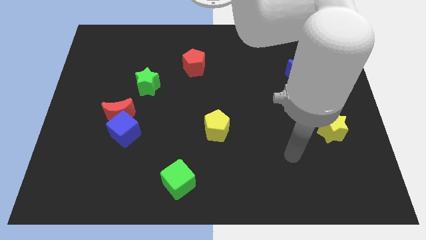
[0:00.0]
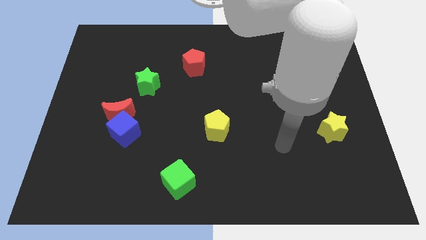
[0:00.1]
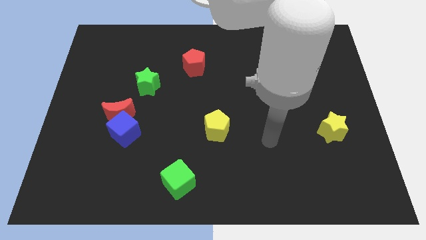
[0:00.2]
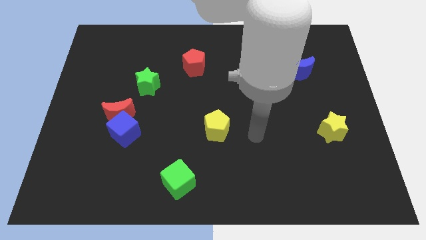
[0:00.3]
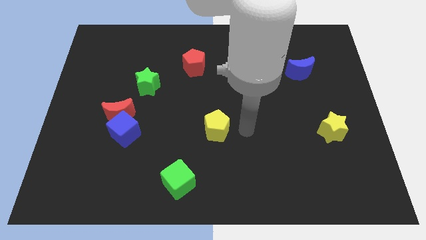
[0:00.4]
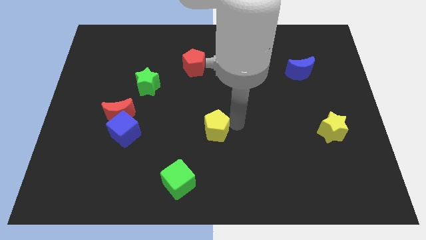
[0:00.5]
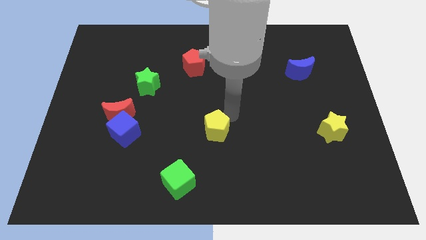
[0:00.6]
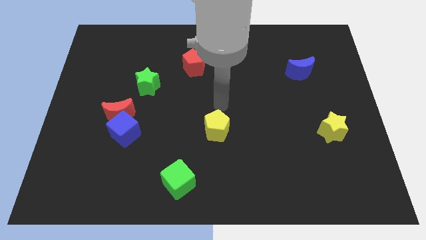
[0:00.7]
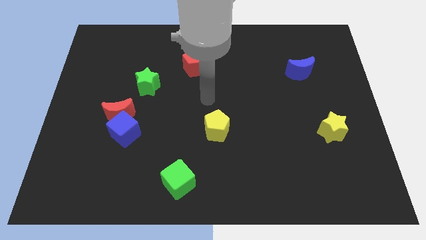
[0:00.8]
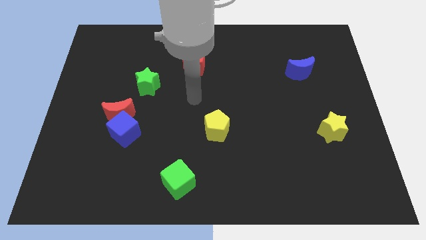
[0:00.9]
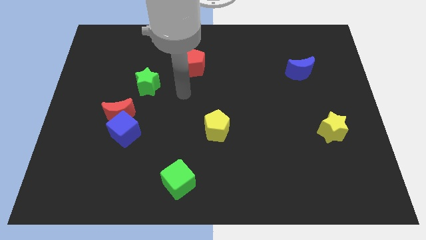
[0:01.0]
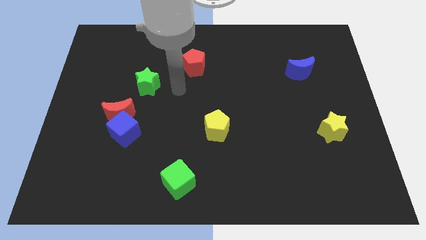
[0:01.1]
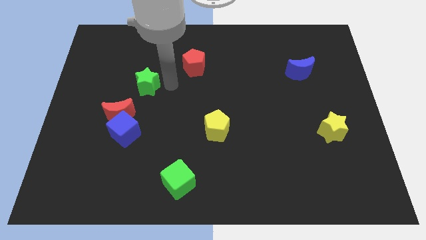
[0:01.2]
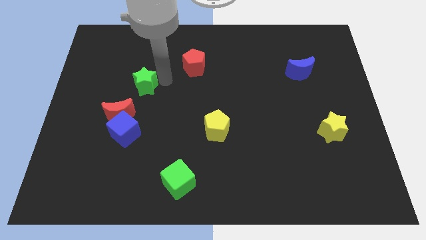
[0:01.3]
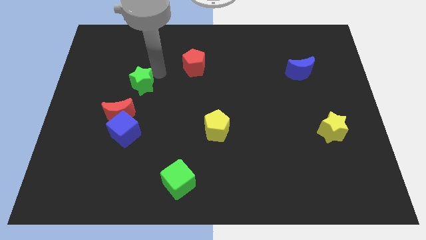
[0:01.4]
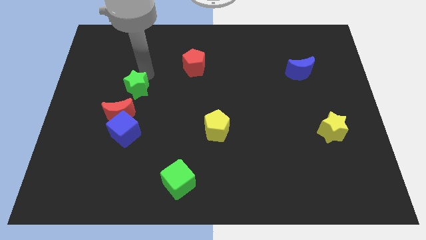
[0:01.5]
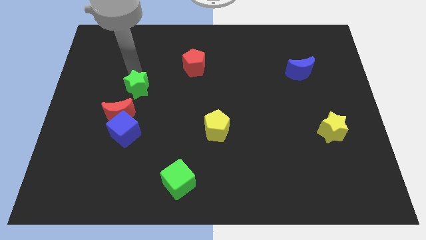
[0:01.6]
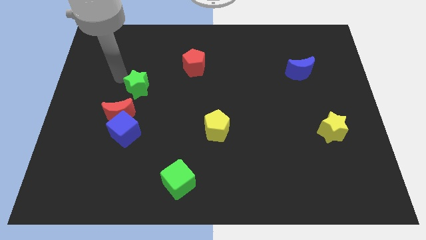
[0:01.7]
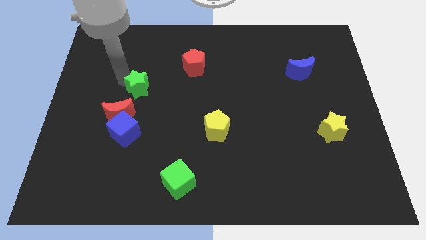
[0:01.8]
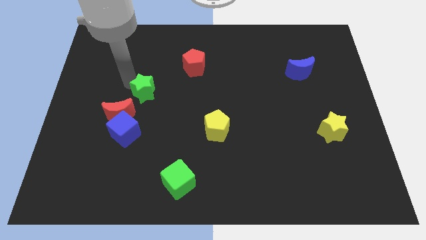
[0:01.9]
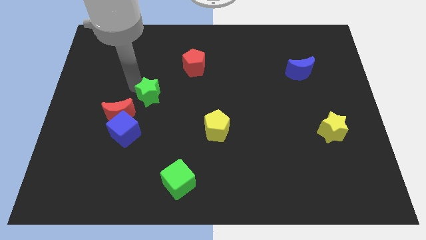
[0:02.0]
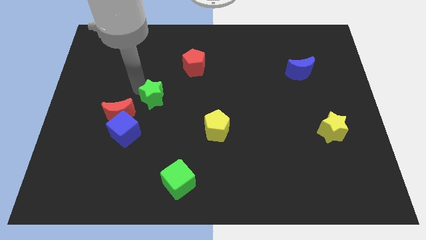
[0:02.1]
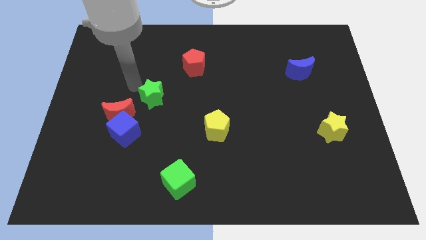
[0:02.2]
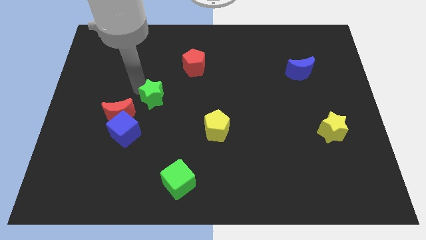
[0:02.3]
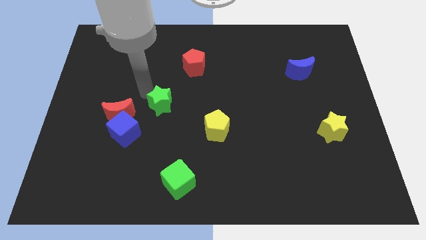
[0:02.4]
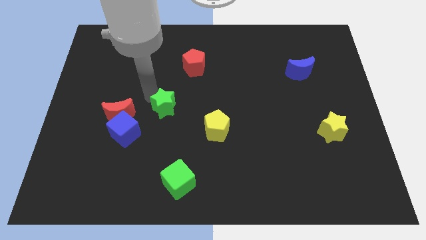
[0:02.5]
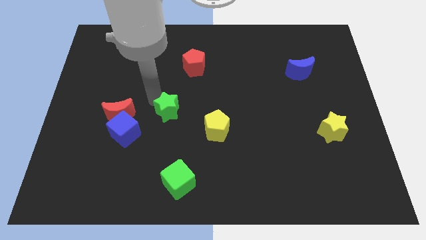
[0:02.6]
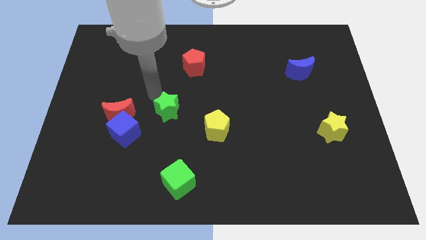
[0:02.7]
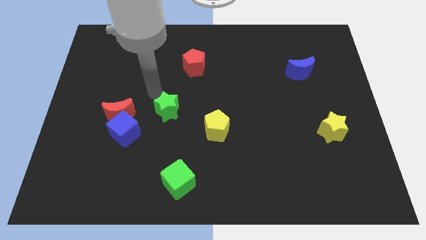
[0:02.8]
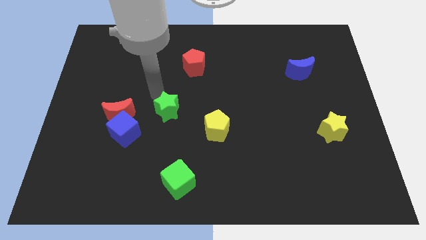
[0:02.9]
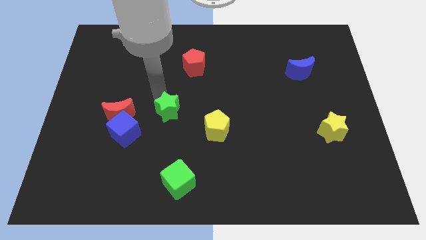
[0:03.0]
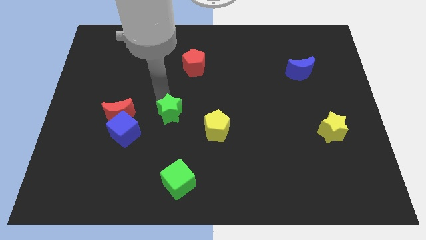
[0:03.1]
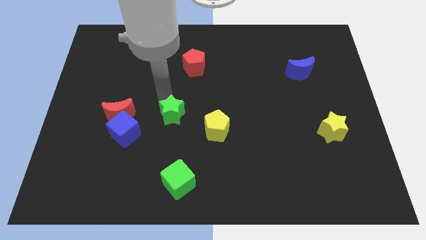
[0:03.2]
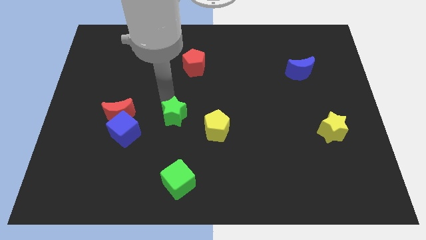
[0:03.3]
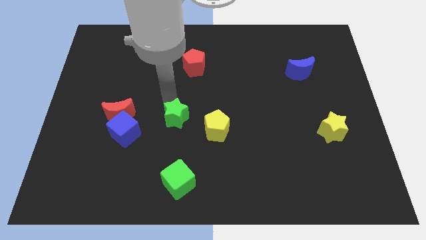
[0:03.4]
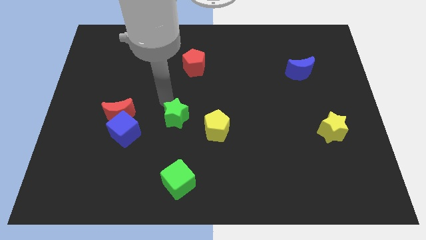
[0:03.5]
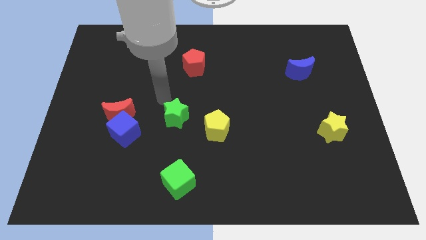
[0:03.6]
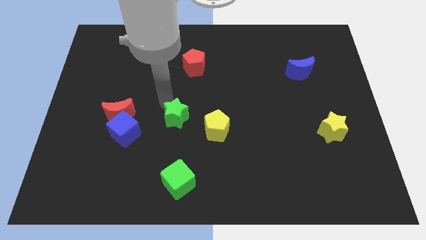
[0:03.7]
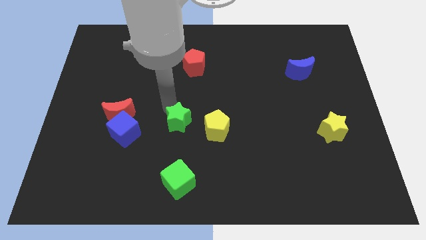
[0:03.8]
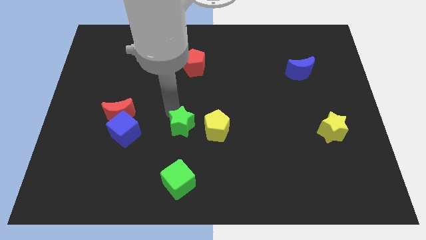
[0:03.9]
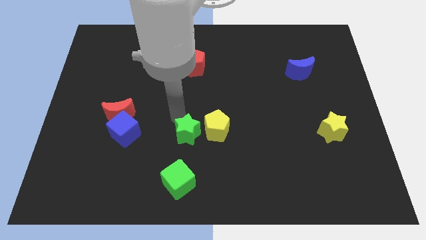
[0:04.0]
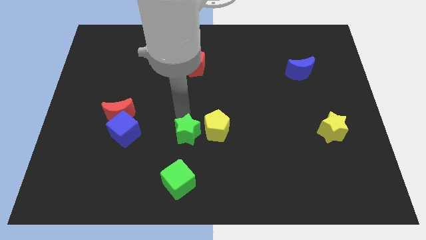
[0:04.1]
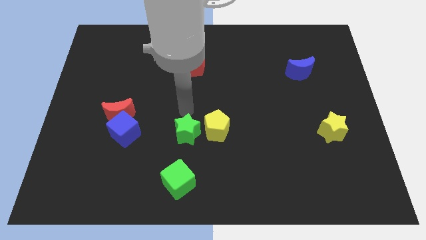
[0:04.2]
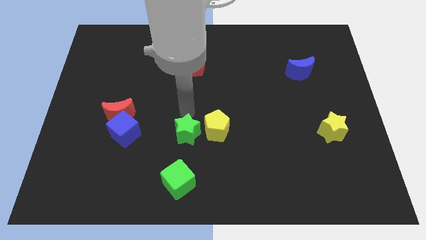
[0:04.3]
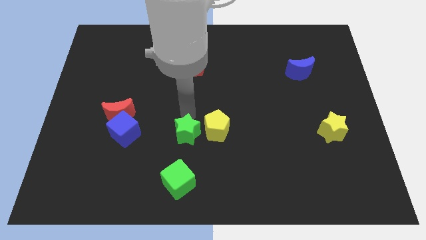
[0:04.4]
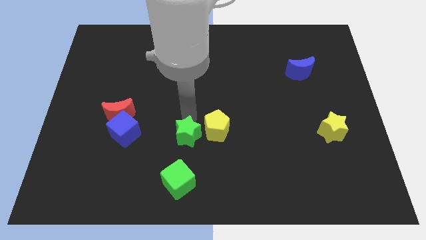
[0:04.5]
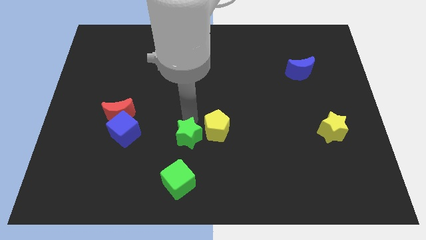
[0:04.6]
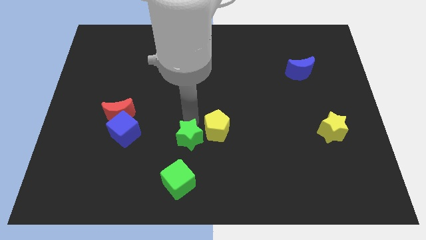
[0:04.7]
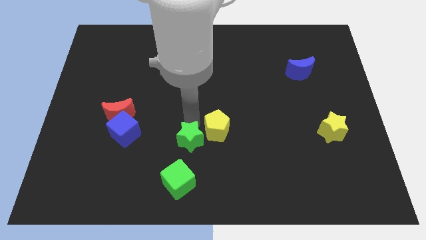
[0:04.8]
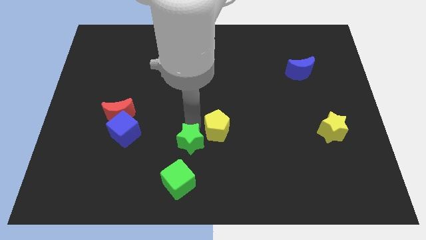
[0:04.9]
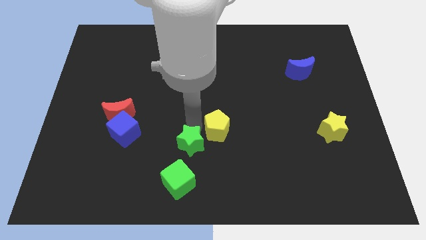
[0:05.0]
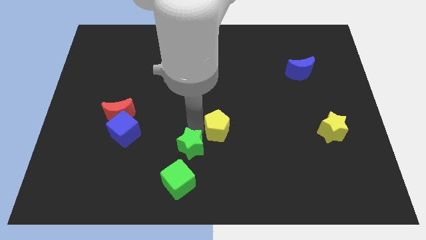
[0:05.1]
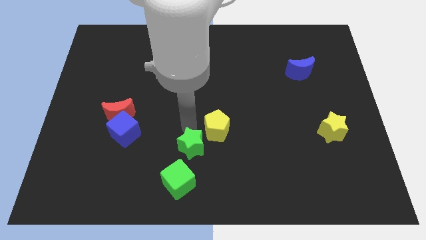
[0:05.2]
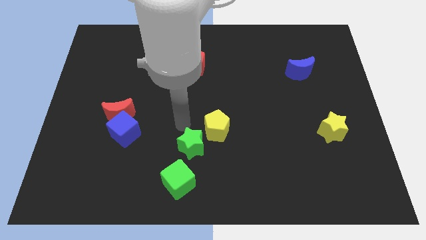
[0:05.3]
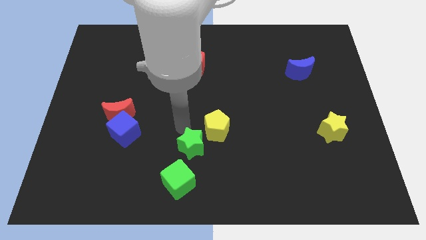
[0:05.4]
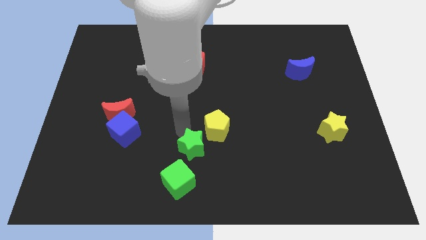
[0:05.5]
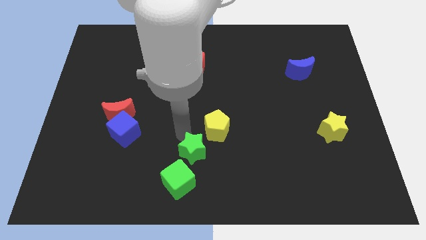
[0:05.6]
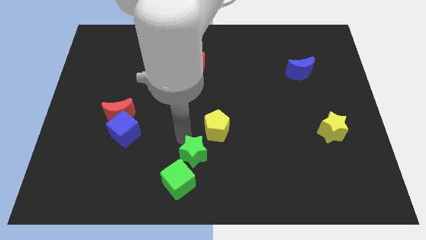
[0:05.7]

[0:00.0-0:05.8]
move the green star to the bottom side

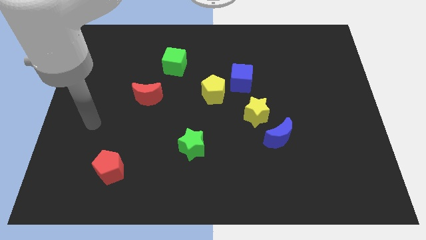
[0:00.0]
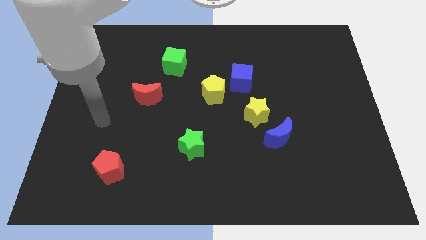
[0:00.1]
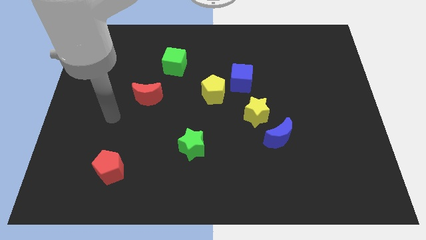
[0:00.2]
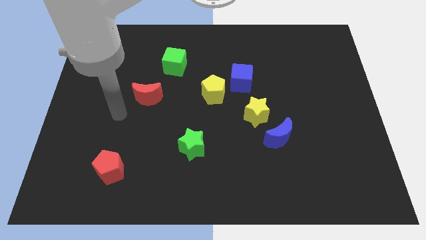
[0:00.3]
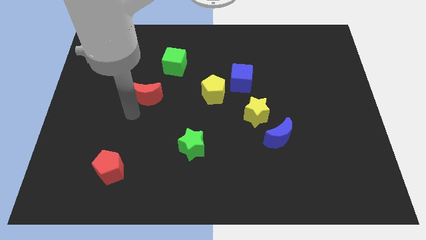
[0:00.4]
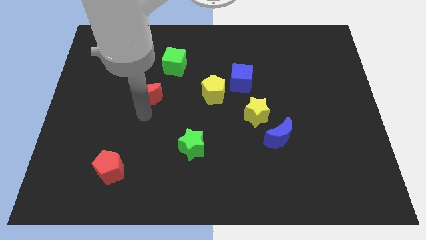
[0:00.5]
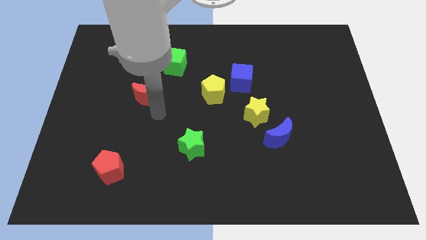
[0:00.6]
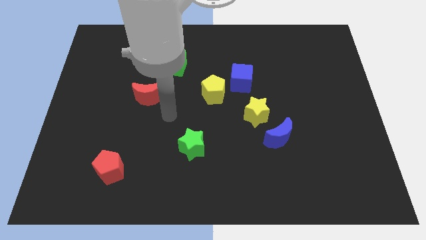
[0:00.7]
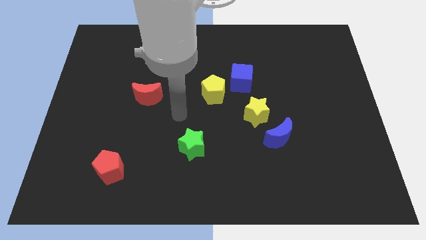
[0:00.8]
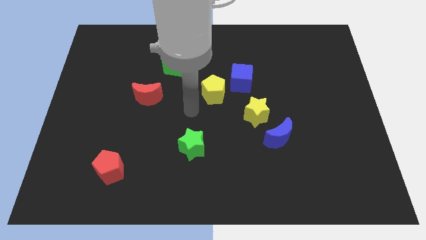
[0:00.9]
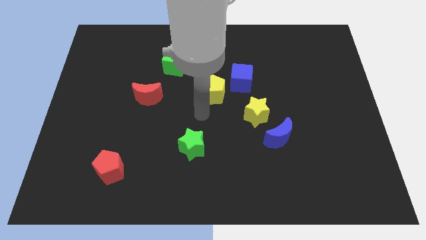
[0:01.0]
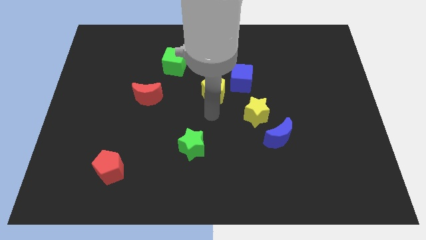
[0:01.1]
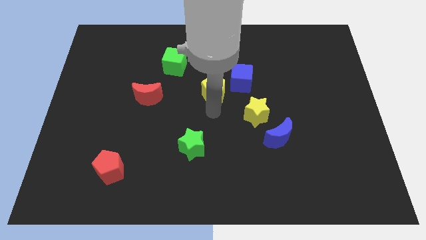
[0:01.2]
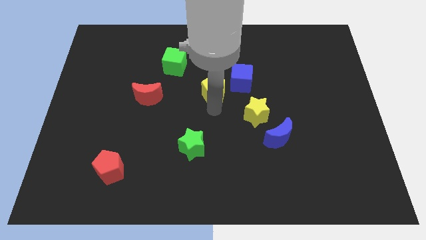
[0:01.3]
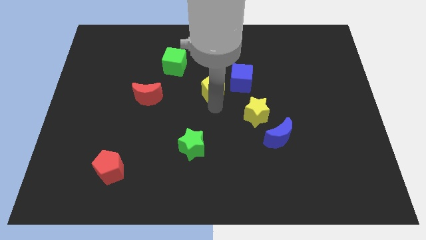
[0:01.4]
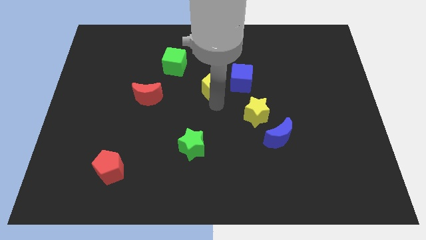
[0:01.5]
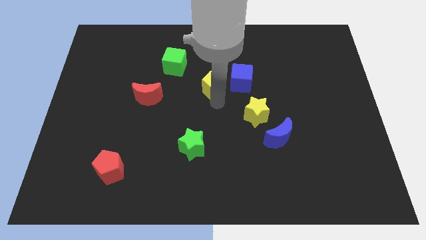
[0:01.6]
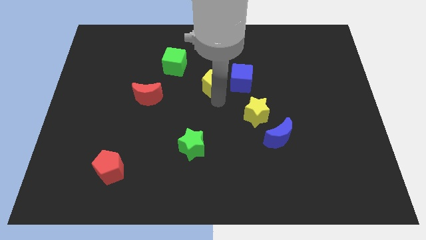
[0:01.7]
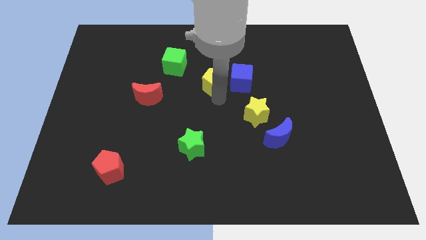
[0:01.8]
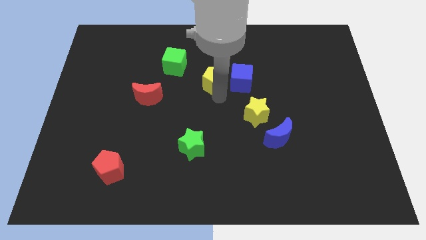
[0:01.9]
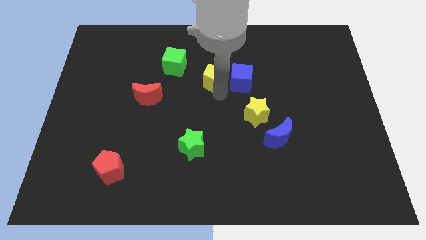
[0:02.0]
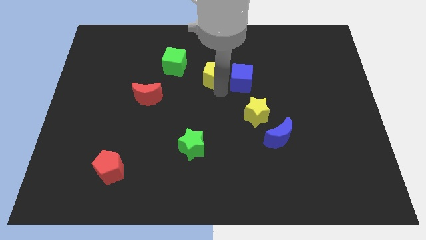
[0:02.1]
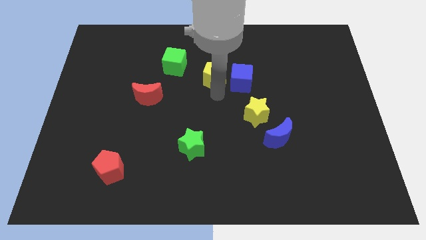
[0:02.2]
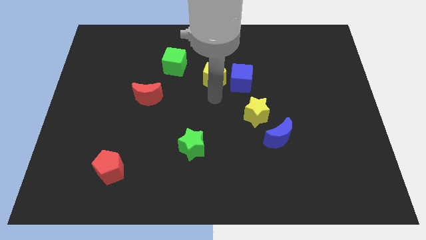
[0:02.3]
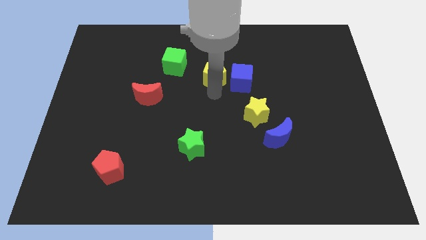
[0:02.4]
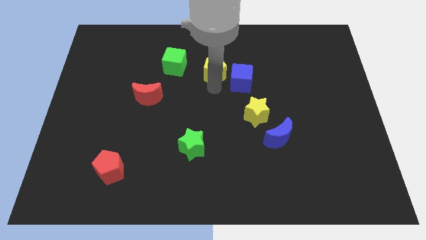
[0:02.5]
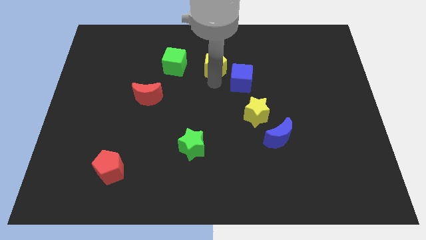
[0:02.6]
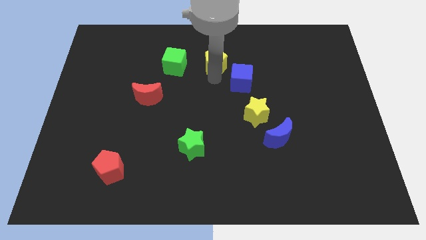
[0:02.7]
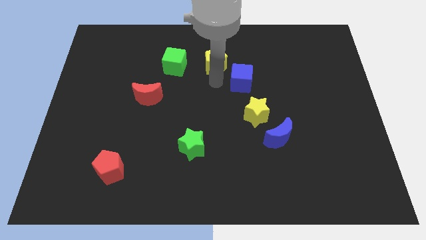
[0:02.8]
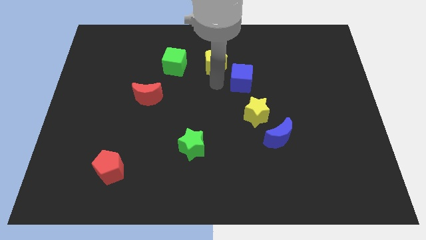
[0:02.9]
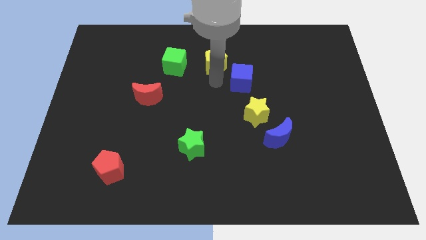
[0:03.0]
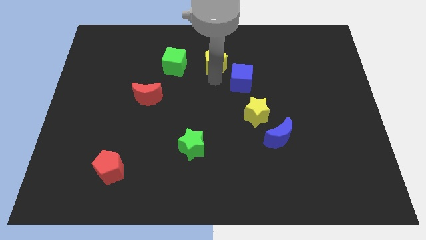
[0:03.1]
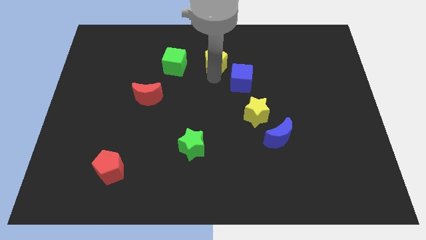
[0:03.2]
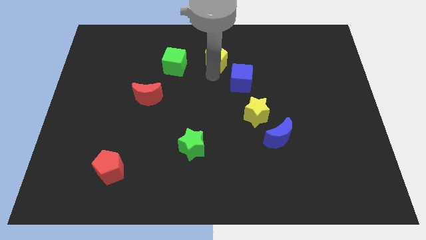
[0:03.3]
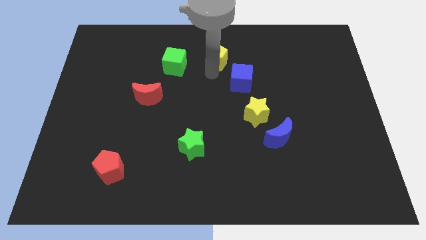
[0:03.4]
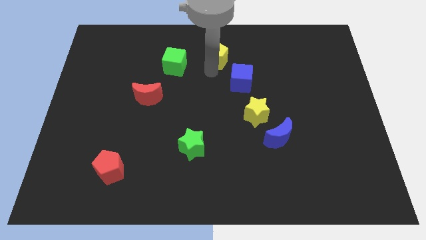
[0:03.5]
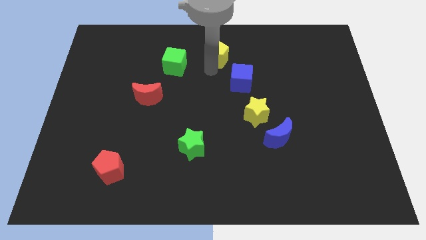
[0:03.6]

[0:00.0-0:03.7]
move the yellow pentagon to the top side
